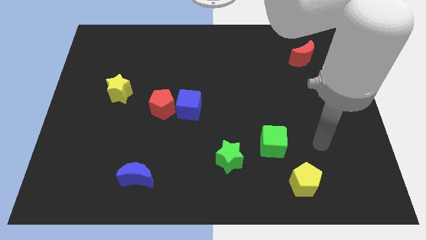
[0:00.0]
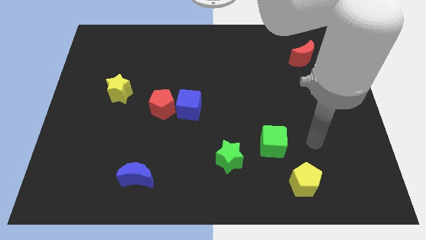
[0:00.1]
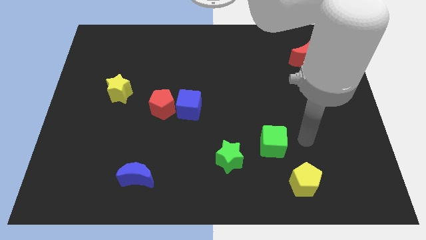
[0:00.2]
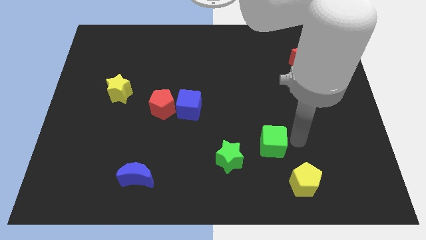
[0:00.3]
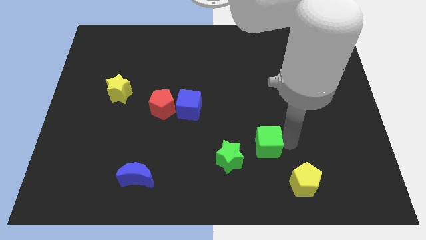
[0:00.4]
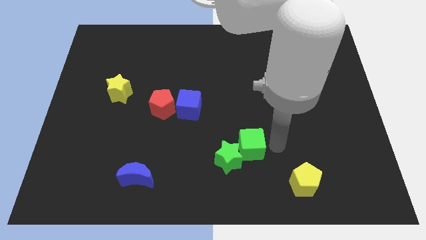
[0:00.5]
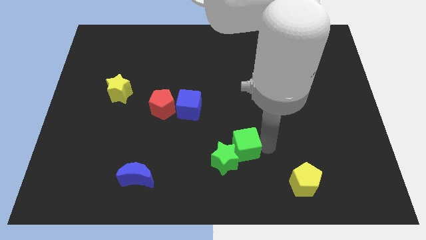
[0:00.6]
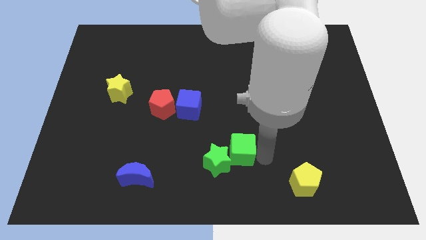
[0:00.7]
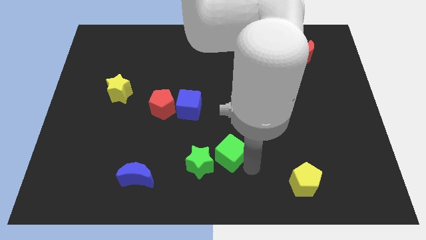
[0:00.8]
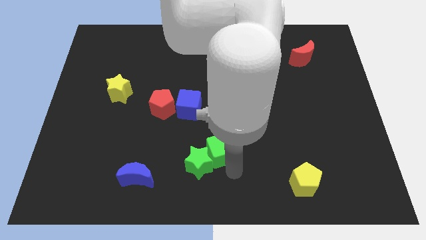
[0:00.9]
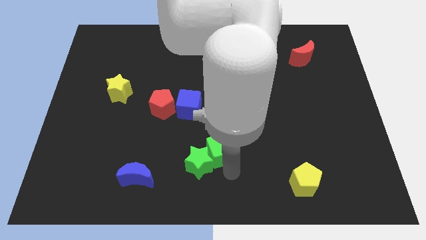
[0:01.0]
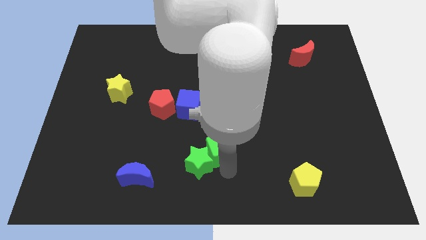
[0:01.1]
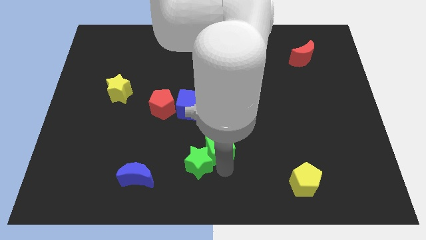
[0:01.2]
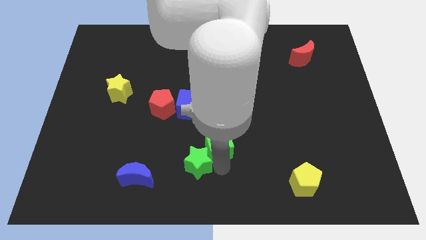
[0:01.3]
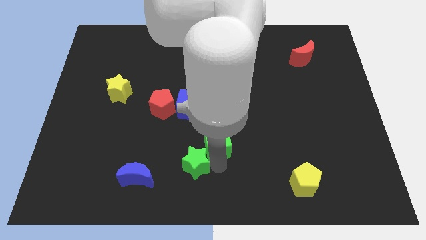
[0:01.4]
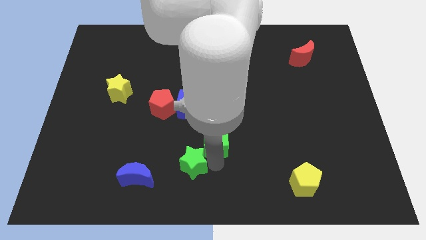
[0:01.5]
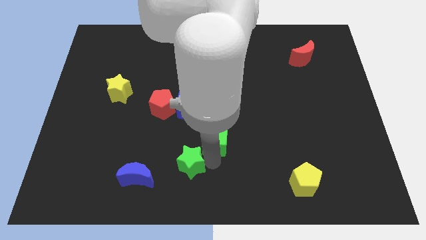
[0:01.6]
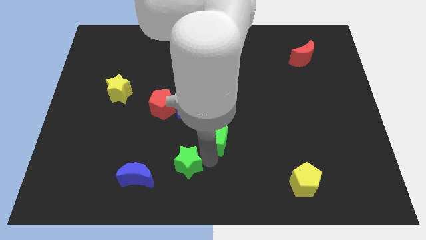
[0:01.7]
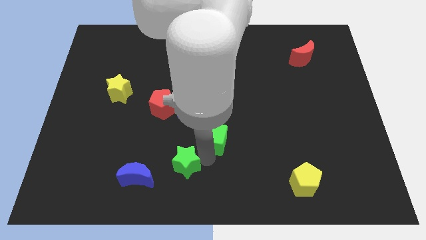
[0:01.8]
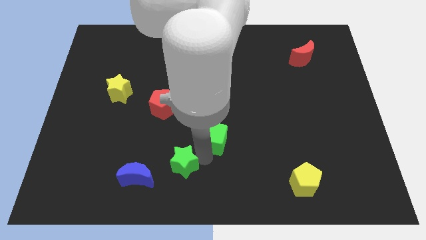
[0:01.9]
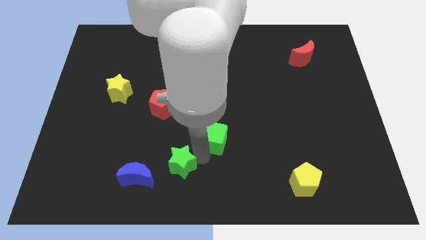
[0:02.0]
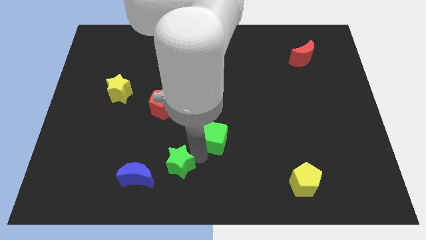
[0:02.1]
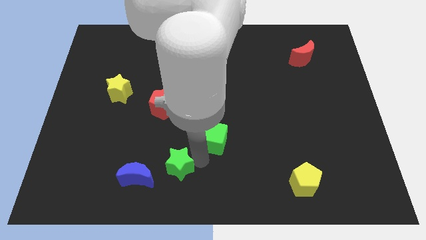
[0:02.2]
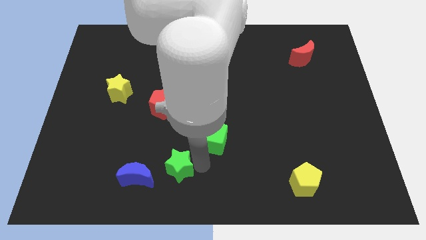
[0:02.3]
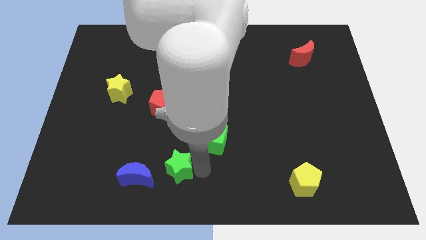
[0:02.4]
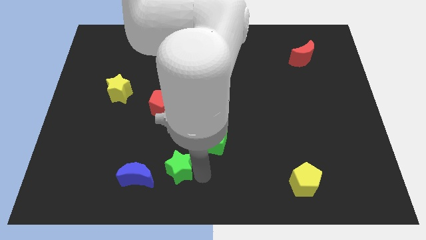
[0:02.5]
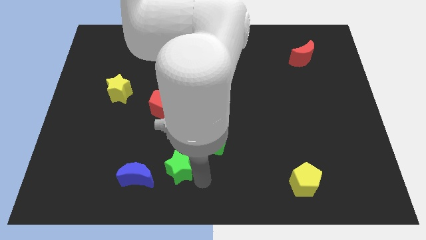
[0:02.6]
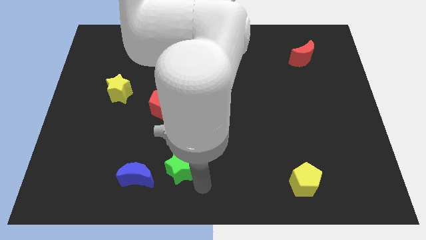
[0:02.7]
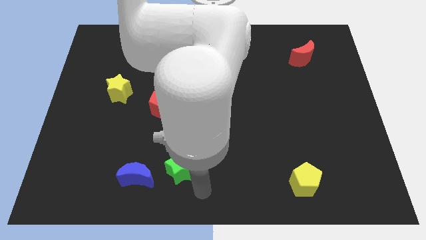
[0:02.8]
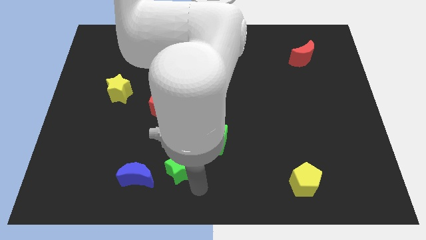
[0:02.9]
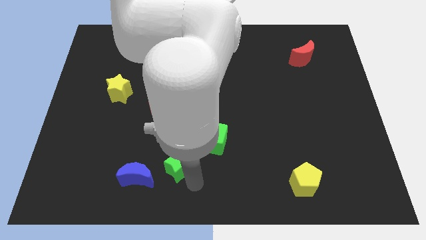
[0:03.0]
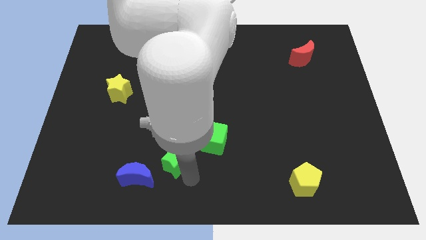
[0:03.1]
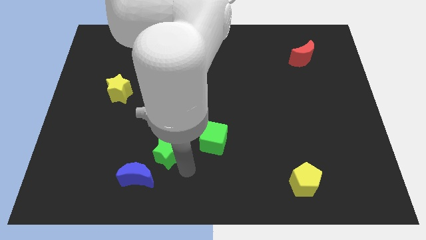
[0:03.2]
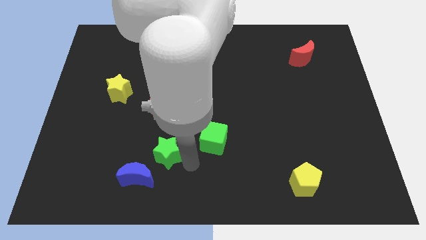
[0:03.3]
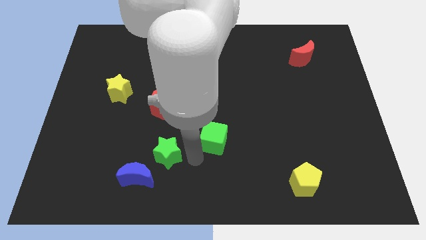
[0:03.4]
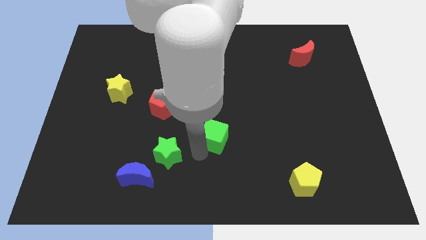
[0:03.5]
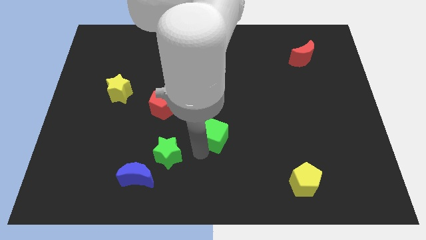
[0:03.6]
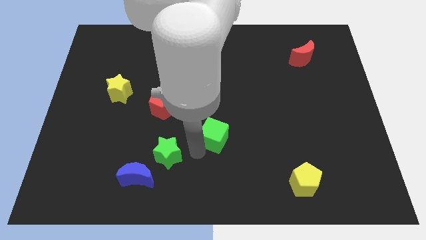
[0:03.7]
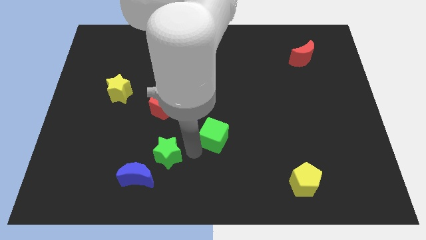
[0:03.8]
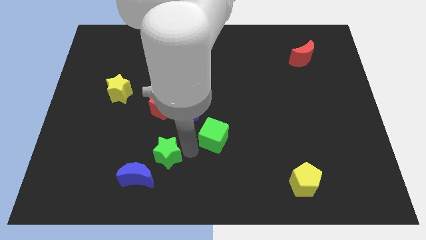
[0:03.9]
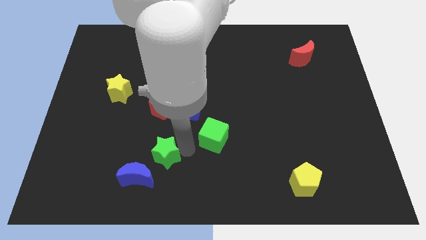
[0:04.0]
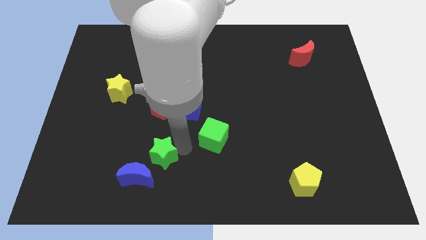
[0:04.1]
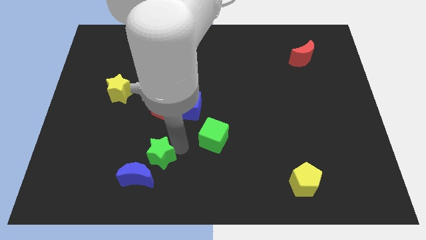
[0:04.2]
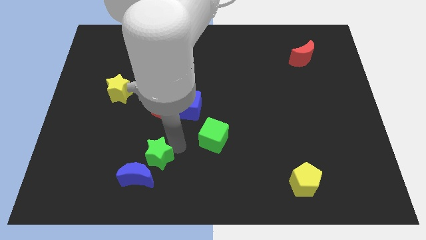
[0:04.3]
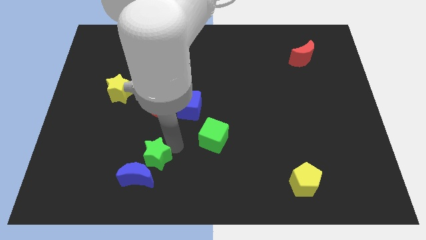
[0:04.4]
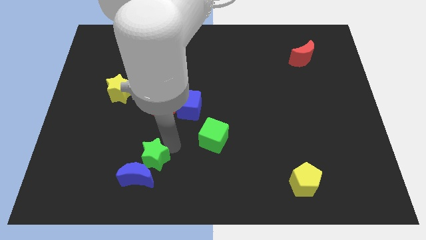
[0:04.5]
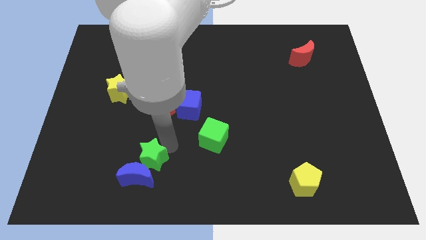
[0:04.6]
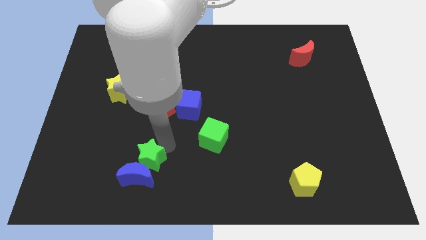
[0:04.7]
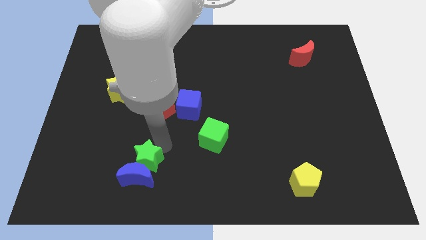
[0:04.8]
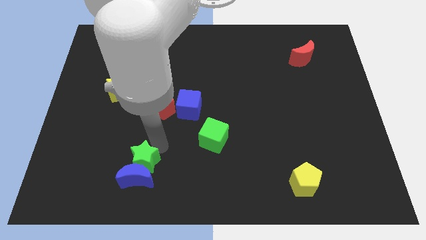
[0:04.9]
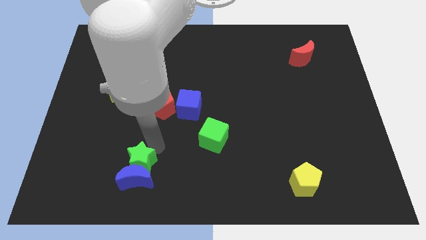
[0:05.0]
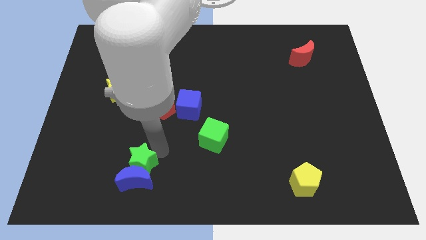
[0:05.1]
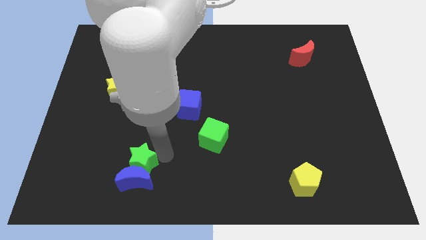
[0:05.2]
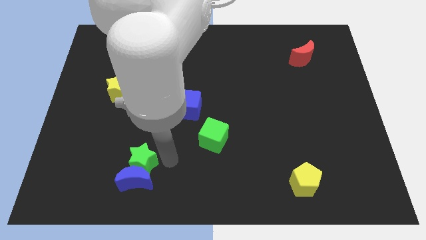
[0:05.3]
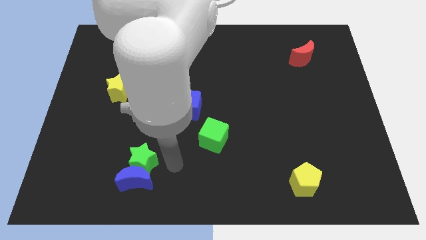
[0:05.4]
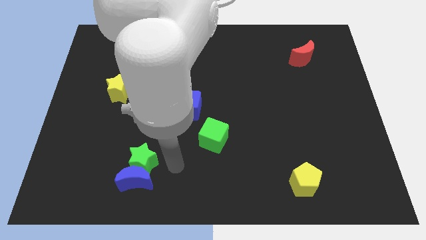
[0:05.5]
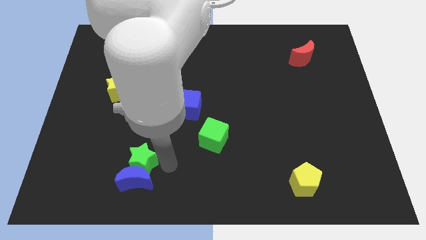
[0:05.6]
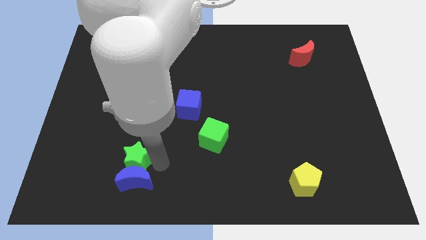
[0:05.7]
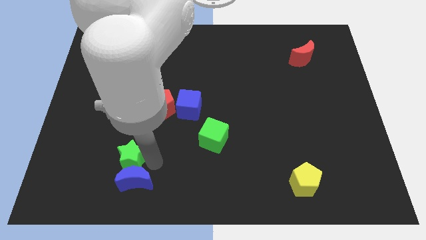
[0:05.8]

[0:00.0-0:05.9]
push the green star left

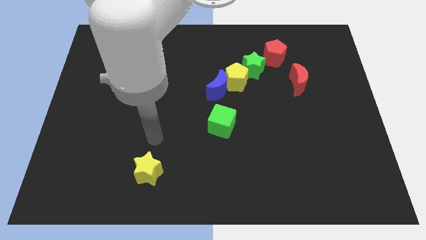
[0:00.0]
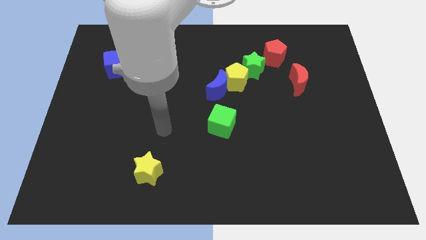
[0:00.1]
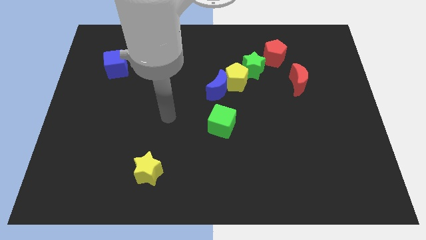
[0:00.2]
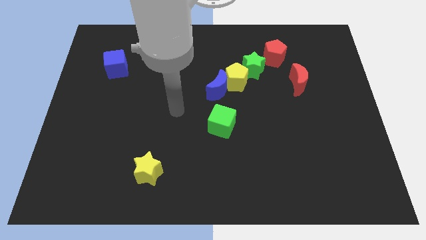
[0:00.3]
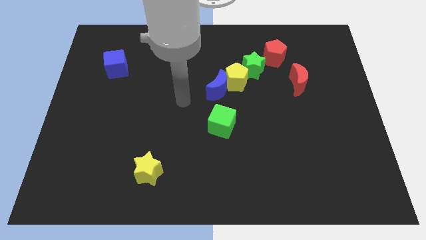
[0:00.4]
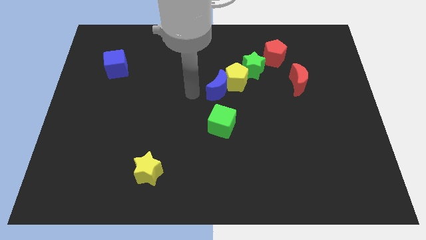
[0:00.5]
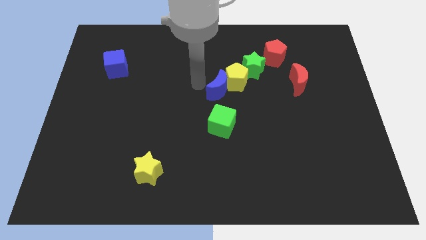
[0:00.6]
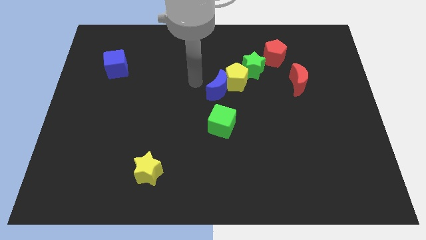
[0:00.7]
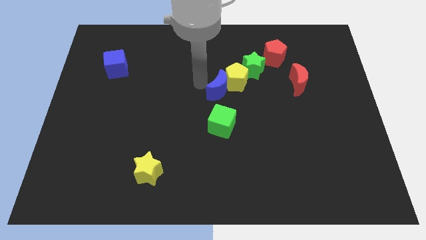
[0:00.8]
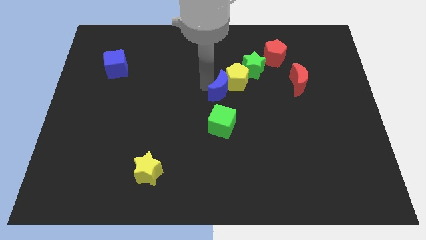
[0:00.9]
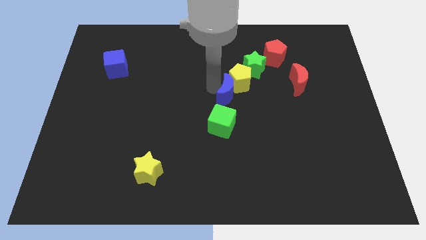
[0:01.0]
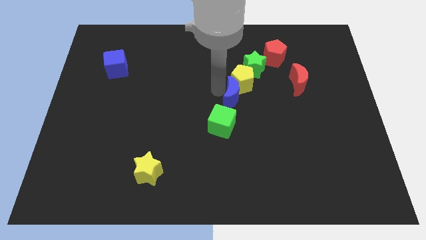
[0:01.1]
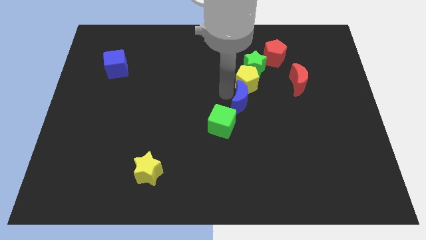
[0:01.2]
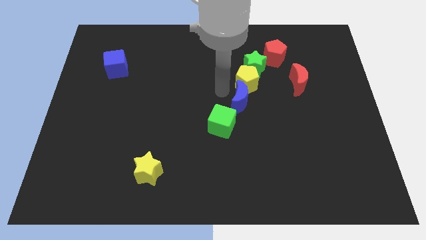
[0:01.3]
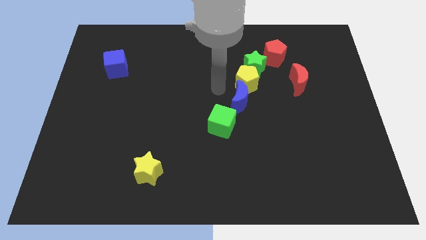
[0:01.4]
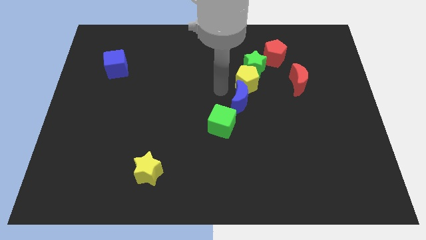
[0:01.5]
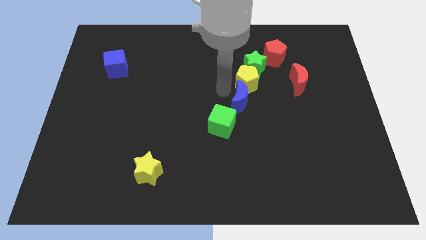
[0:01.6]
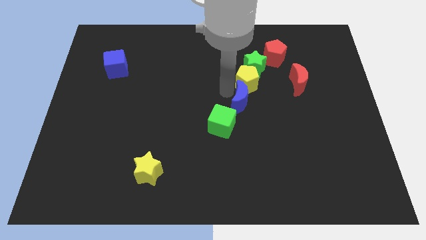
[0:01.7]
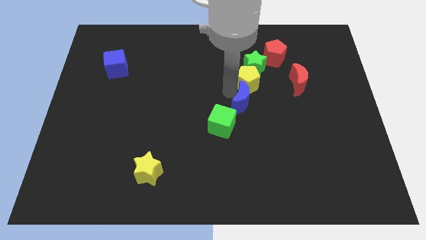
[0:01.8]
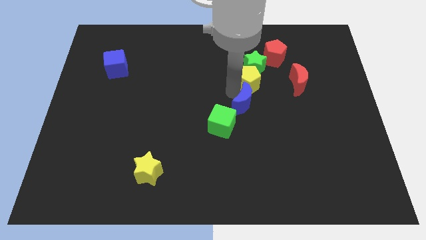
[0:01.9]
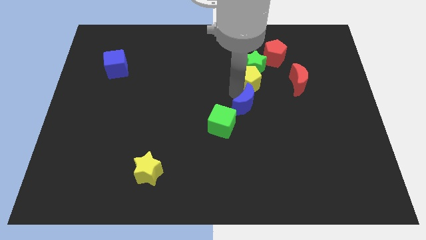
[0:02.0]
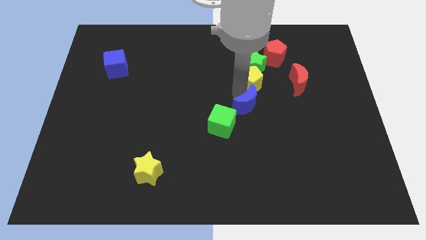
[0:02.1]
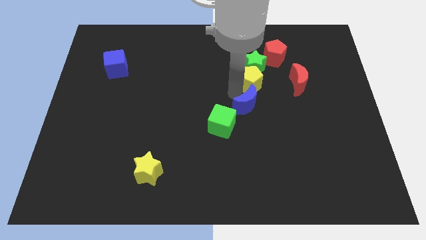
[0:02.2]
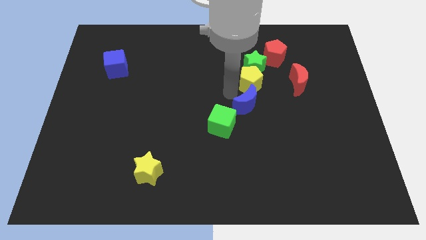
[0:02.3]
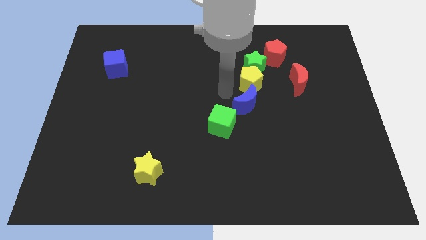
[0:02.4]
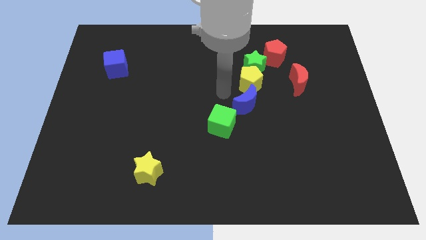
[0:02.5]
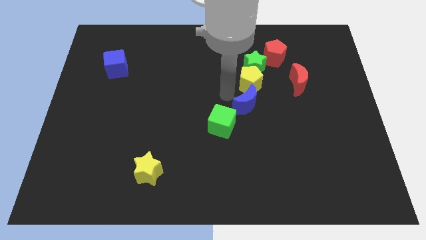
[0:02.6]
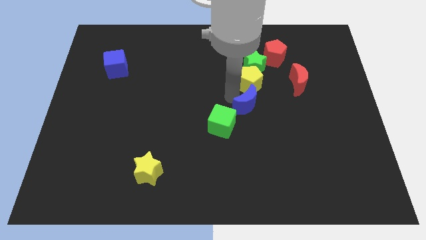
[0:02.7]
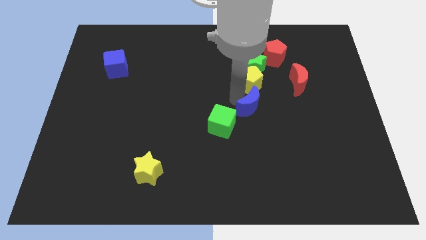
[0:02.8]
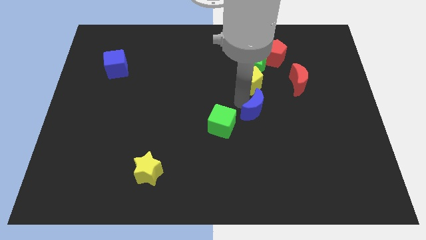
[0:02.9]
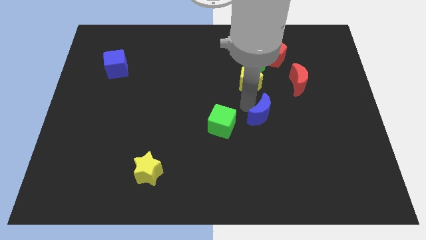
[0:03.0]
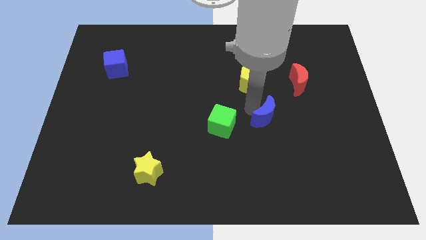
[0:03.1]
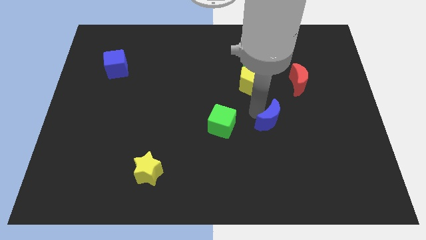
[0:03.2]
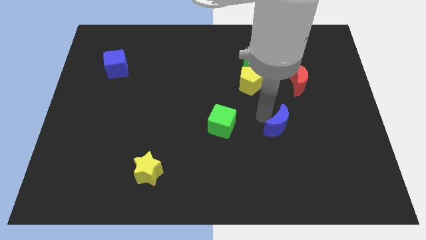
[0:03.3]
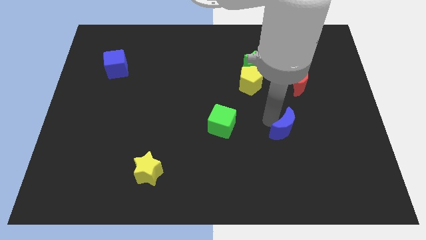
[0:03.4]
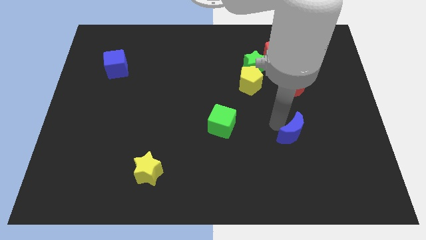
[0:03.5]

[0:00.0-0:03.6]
slide the blue moon diagonally downwards and to the right
